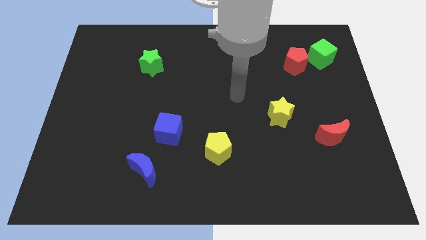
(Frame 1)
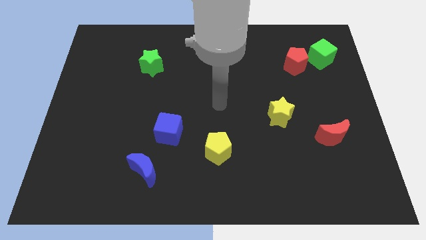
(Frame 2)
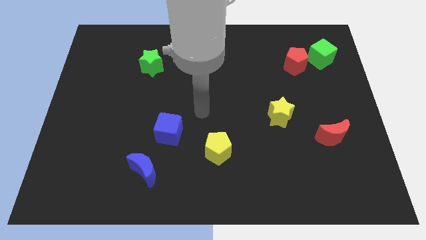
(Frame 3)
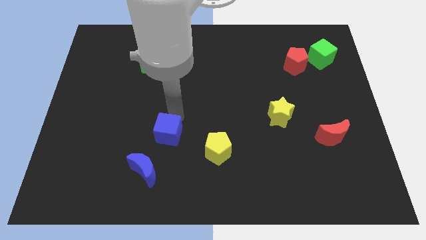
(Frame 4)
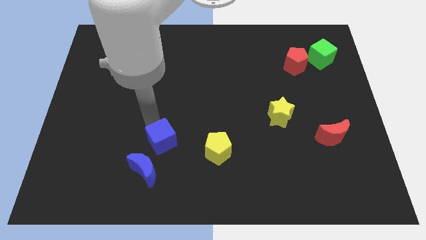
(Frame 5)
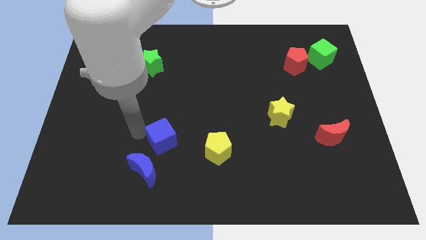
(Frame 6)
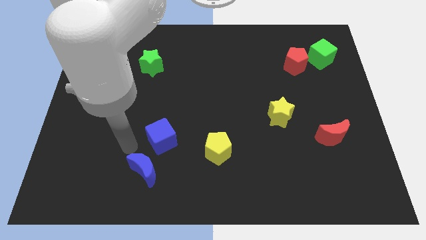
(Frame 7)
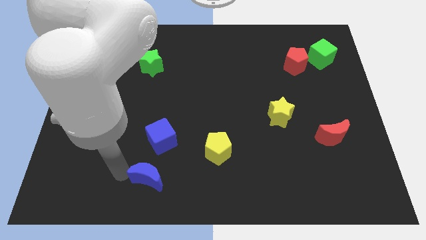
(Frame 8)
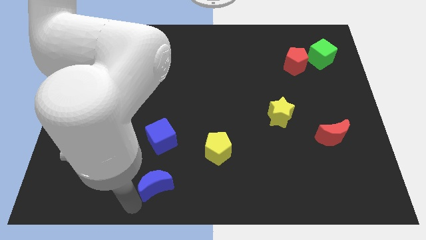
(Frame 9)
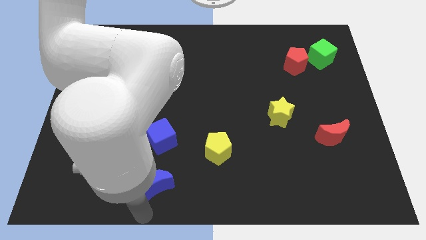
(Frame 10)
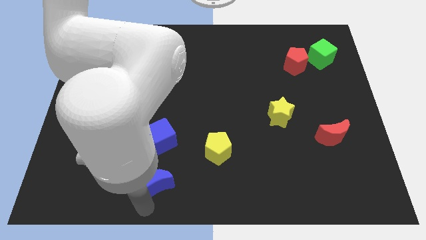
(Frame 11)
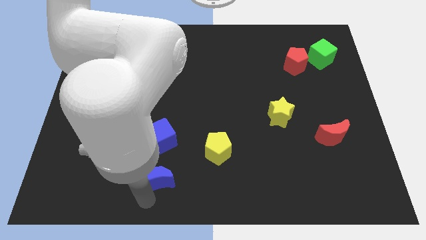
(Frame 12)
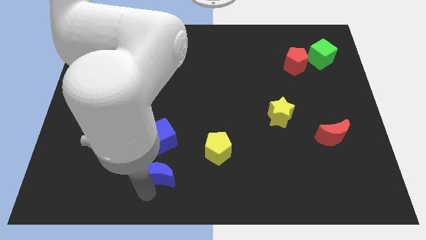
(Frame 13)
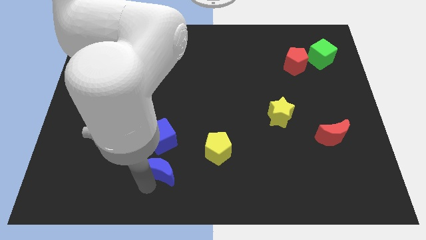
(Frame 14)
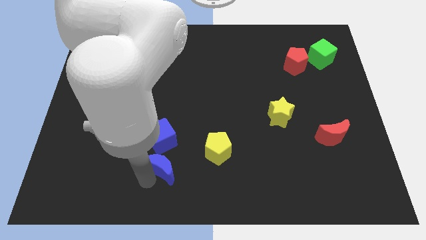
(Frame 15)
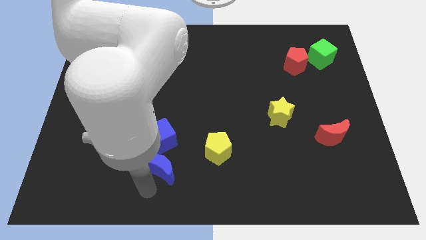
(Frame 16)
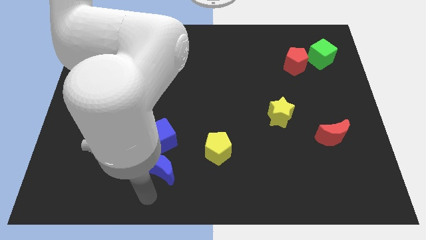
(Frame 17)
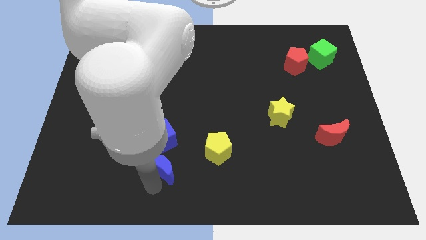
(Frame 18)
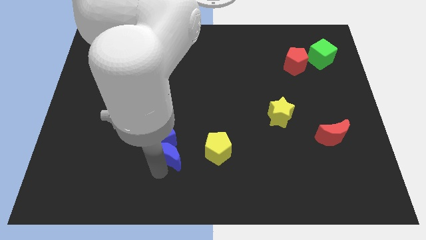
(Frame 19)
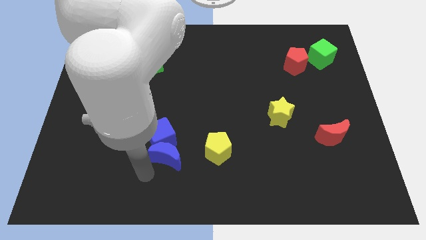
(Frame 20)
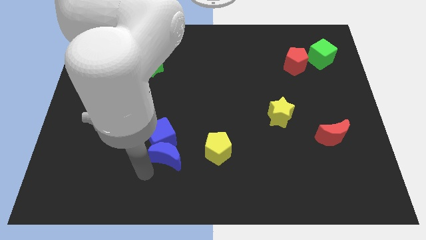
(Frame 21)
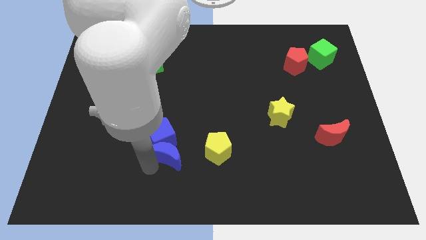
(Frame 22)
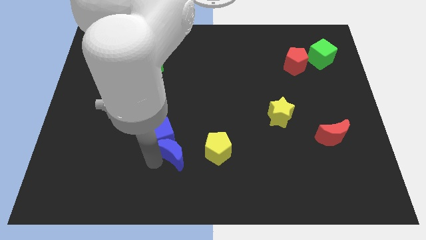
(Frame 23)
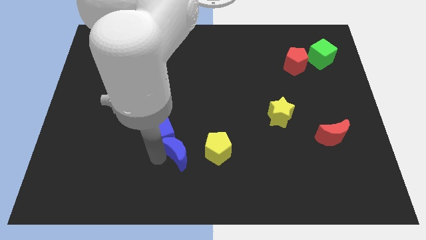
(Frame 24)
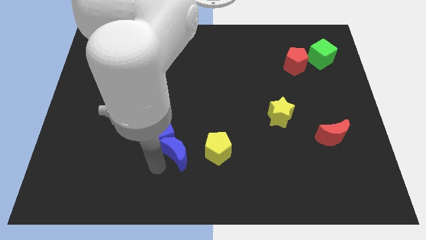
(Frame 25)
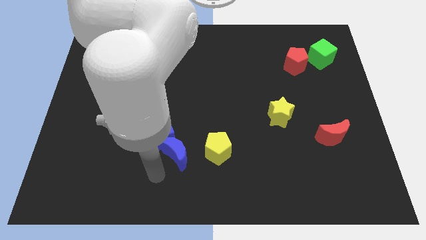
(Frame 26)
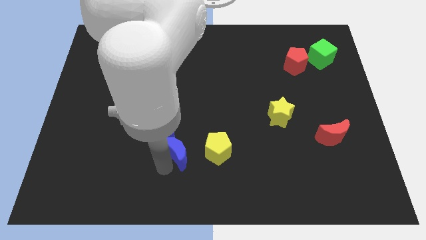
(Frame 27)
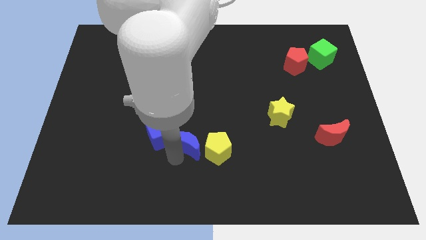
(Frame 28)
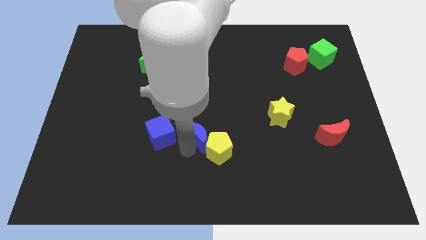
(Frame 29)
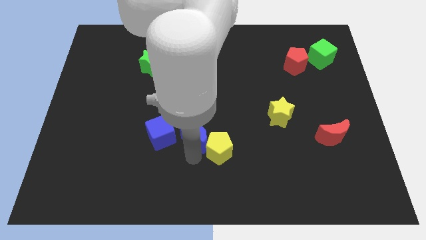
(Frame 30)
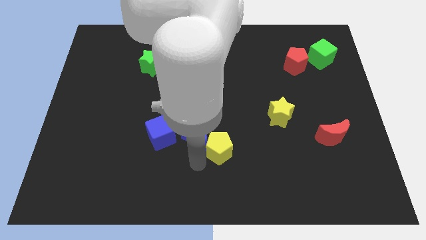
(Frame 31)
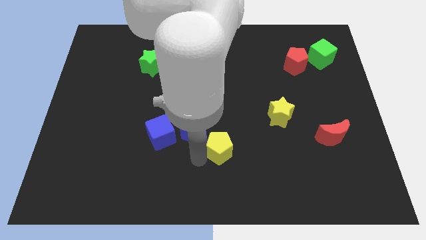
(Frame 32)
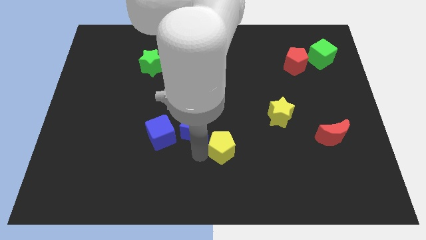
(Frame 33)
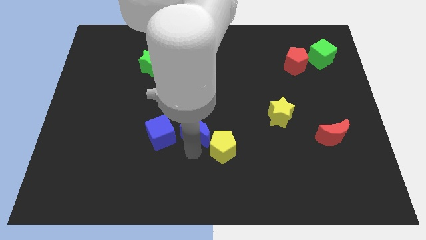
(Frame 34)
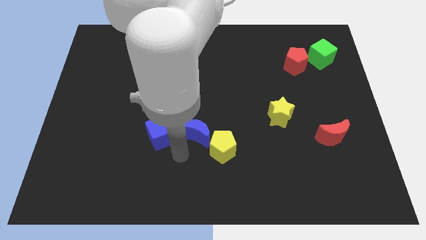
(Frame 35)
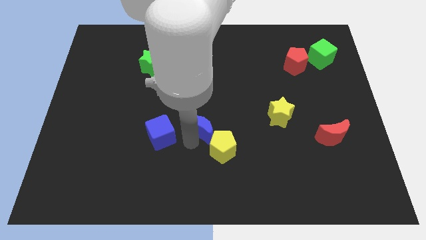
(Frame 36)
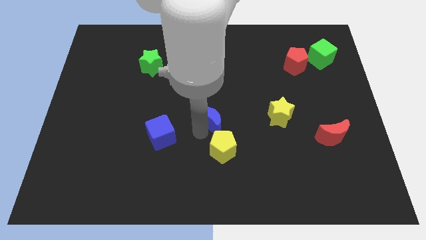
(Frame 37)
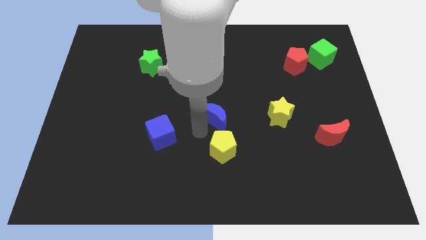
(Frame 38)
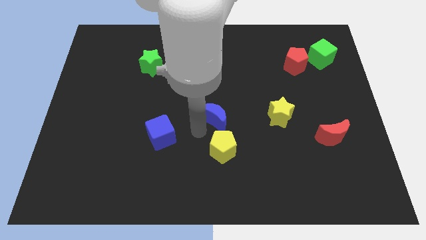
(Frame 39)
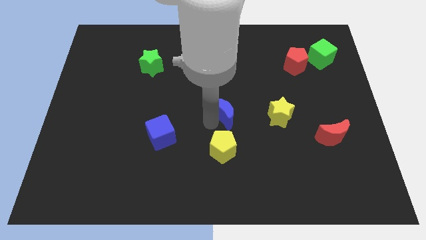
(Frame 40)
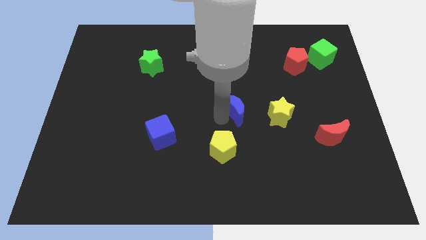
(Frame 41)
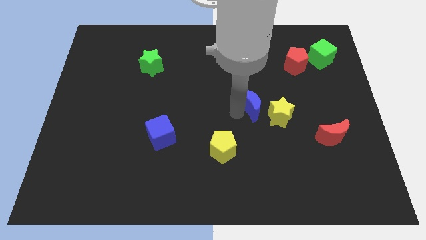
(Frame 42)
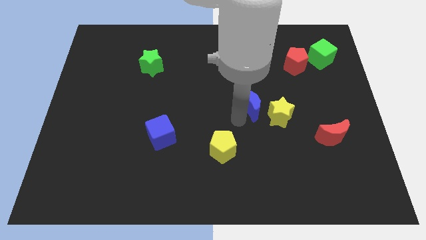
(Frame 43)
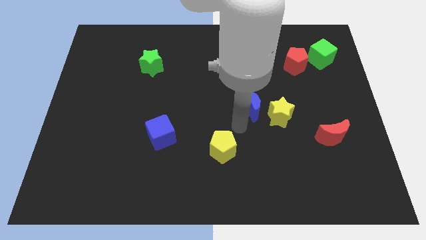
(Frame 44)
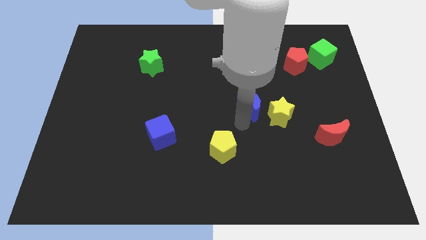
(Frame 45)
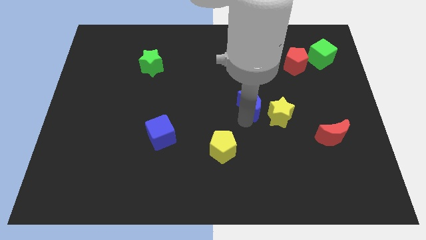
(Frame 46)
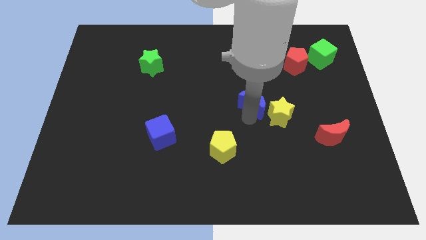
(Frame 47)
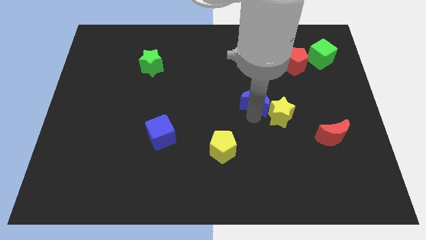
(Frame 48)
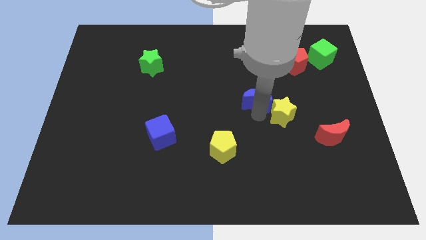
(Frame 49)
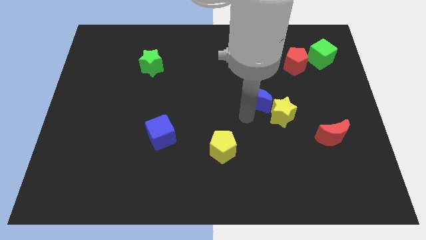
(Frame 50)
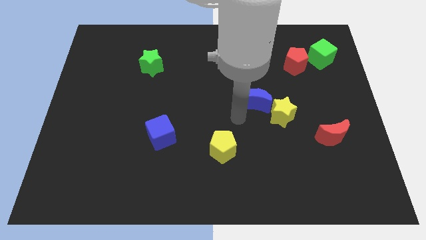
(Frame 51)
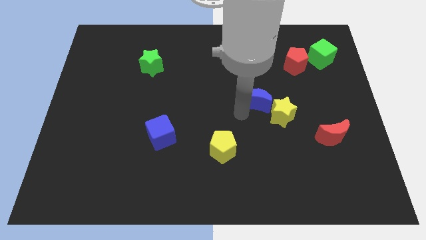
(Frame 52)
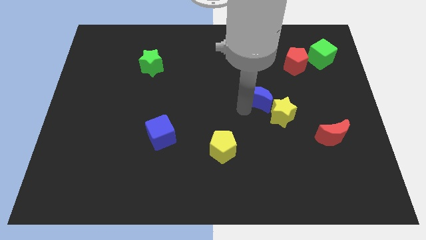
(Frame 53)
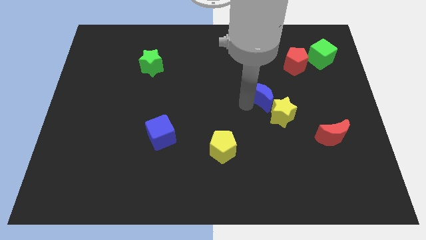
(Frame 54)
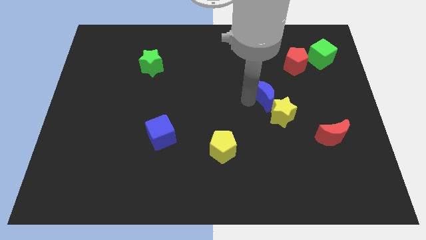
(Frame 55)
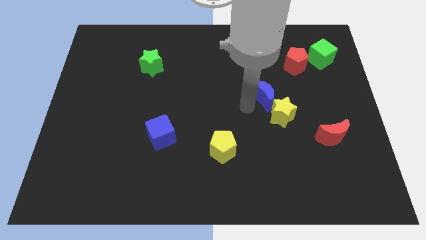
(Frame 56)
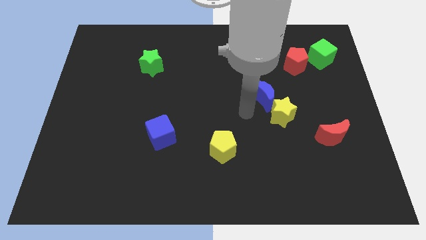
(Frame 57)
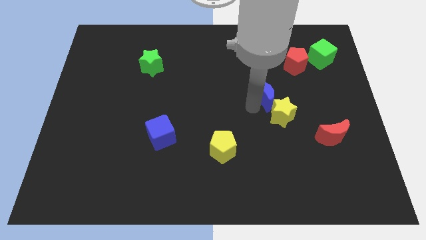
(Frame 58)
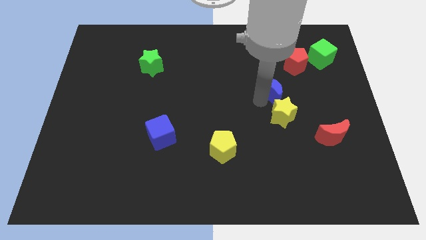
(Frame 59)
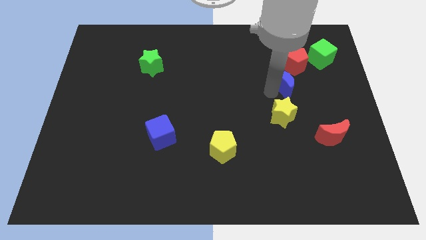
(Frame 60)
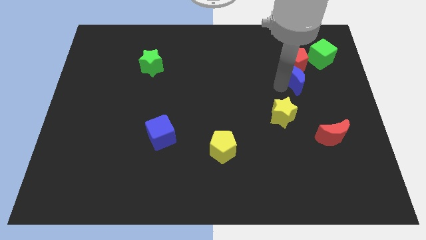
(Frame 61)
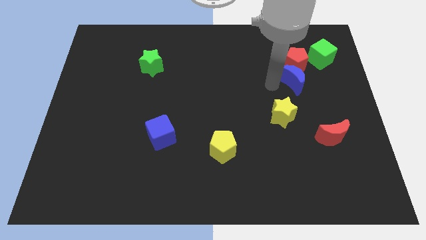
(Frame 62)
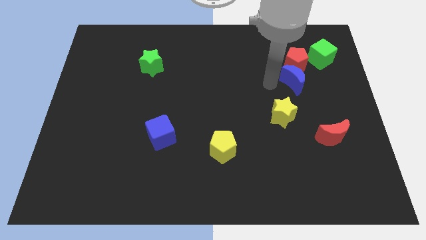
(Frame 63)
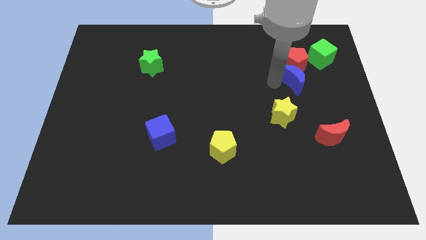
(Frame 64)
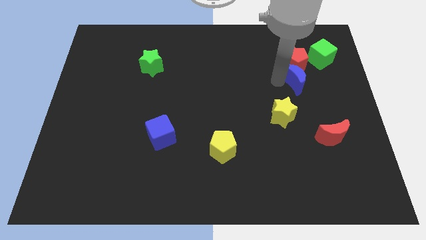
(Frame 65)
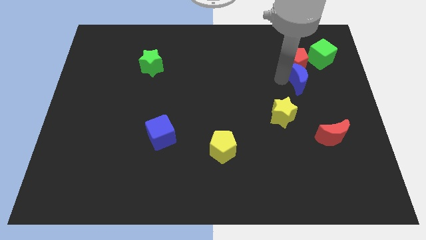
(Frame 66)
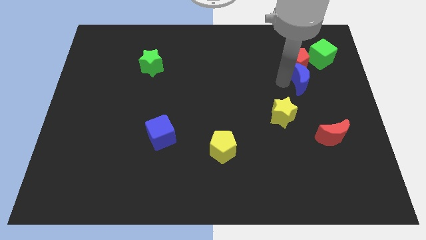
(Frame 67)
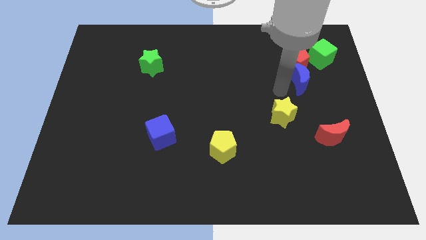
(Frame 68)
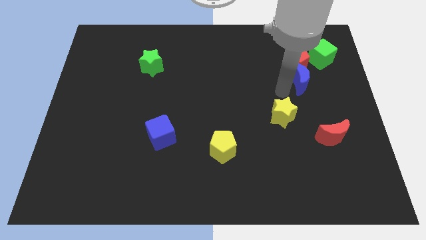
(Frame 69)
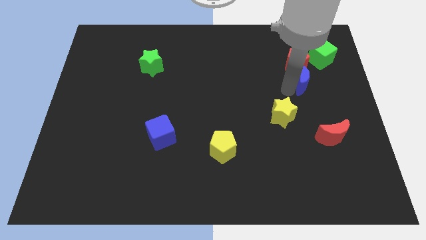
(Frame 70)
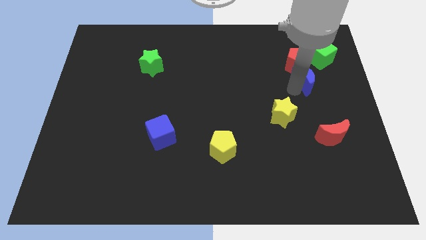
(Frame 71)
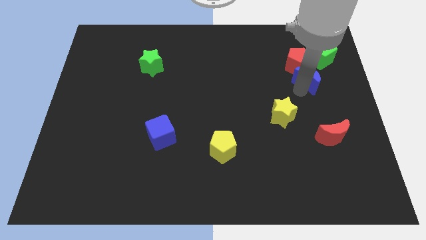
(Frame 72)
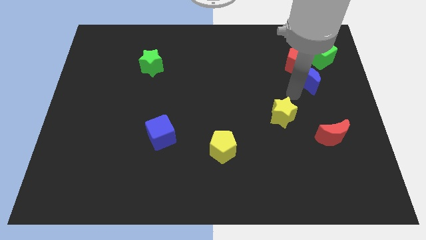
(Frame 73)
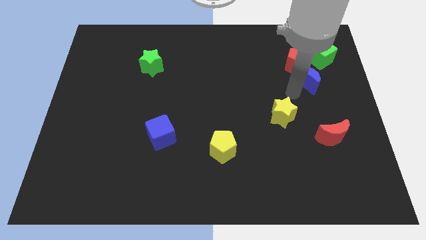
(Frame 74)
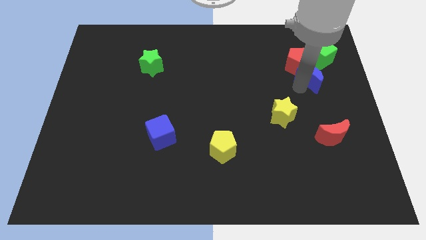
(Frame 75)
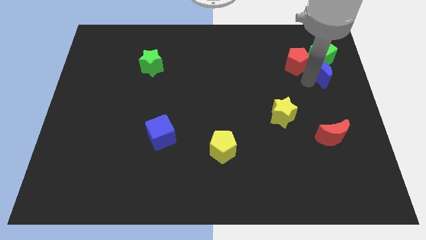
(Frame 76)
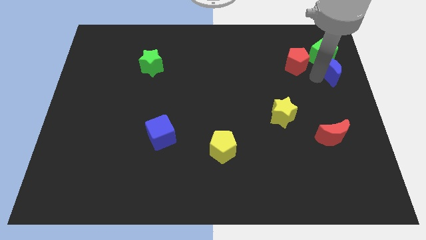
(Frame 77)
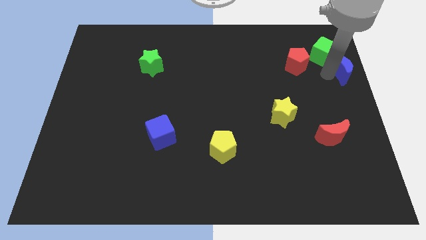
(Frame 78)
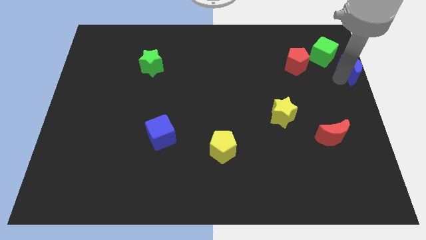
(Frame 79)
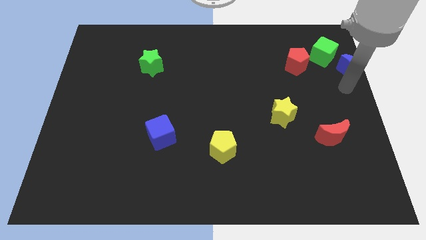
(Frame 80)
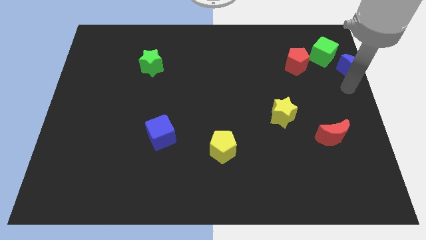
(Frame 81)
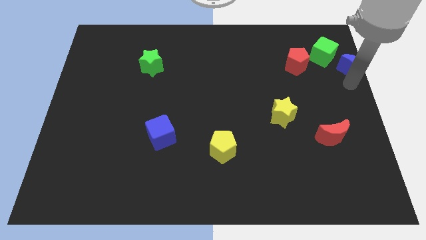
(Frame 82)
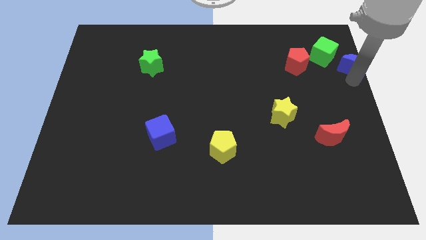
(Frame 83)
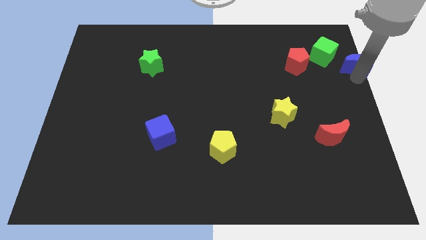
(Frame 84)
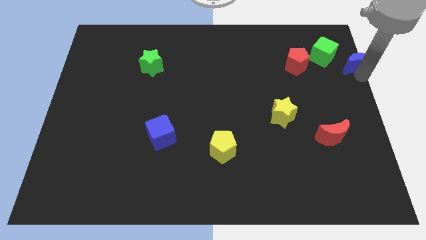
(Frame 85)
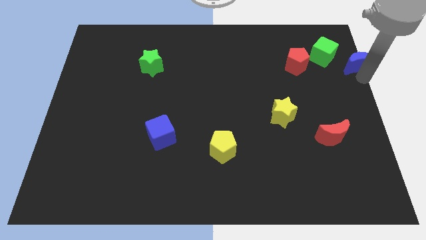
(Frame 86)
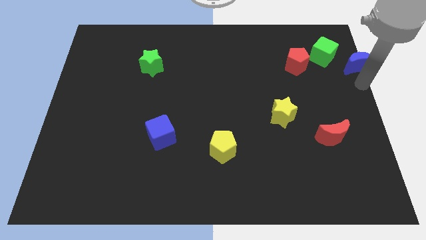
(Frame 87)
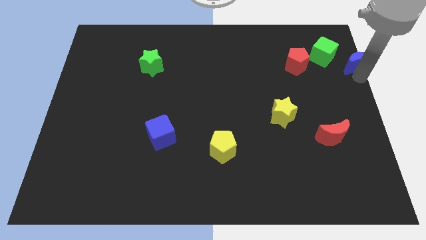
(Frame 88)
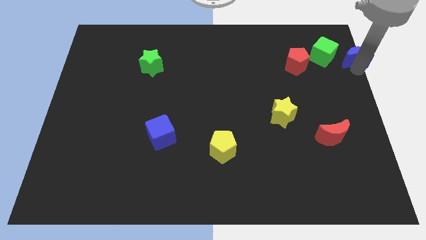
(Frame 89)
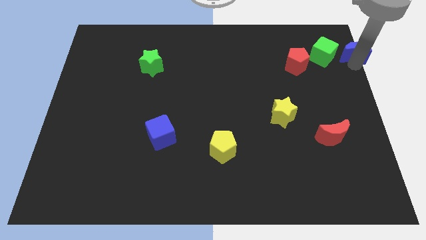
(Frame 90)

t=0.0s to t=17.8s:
put the blue moon to the top right of the board
